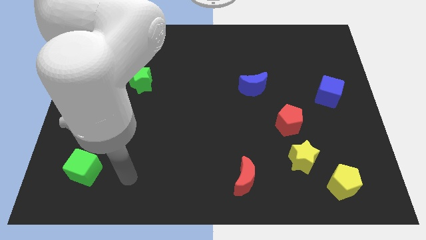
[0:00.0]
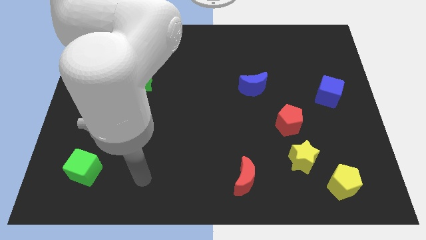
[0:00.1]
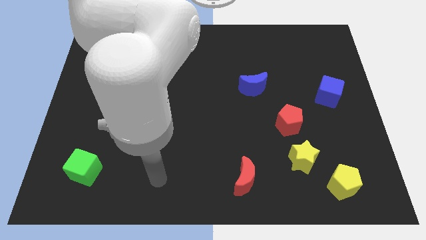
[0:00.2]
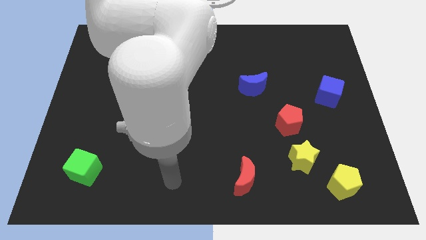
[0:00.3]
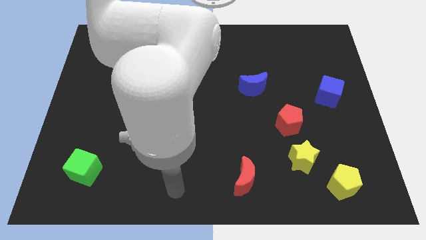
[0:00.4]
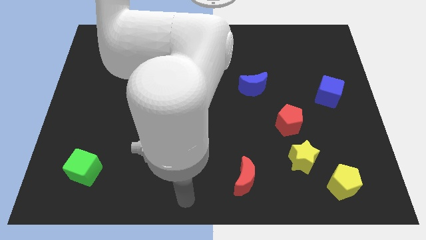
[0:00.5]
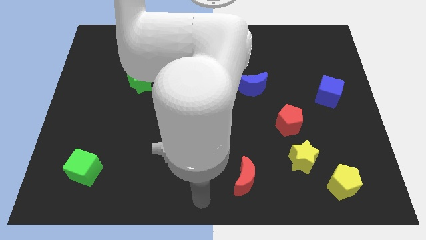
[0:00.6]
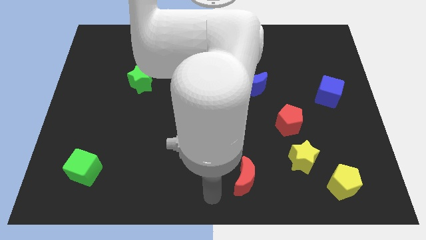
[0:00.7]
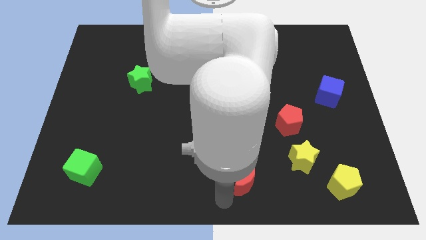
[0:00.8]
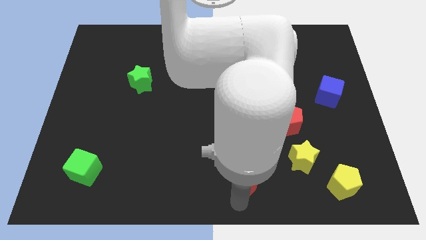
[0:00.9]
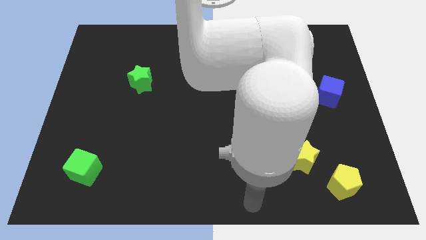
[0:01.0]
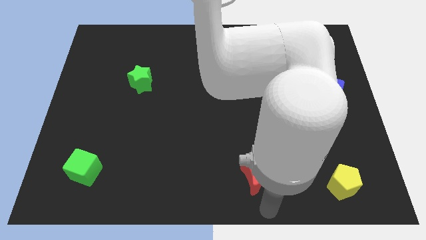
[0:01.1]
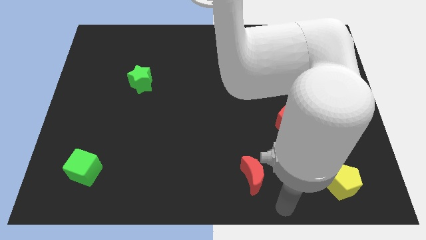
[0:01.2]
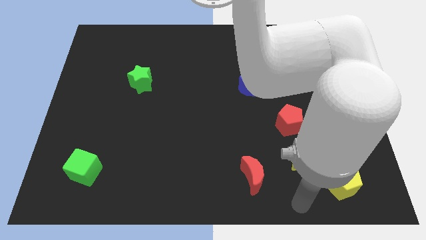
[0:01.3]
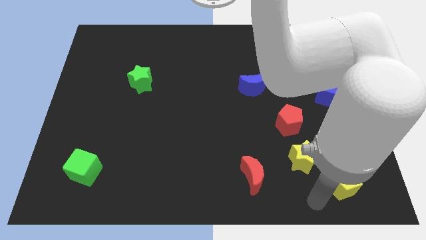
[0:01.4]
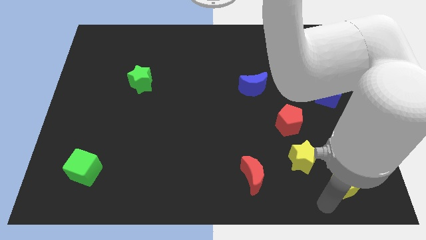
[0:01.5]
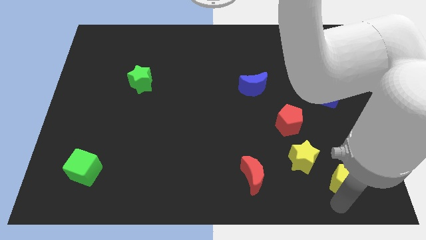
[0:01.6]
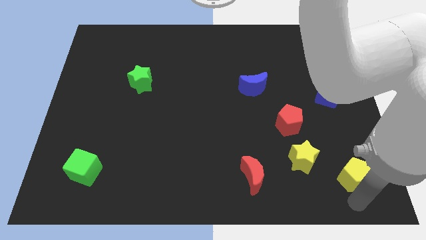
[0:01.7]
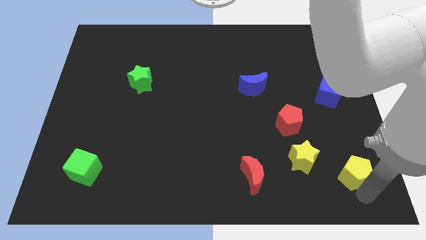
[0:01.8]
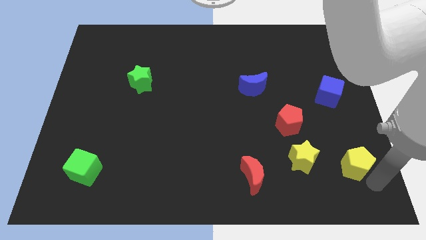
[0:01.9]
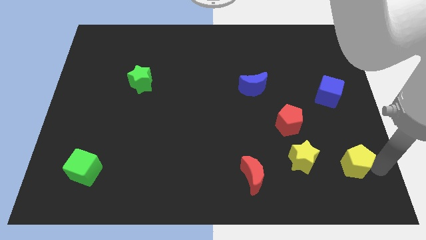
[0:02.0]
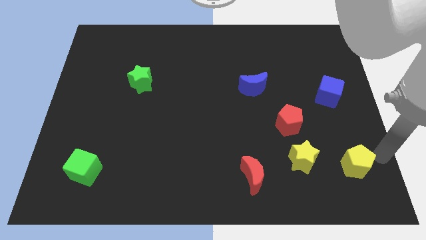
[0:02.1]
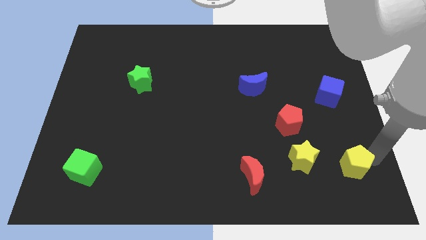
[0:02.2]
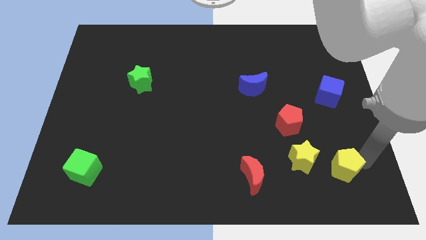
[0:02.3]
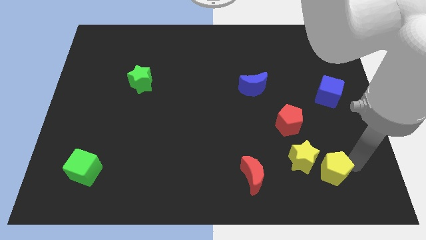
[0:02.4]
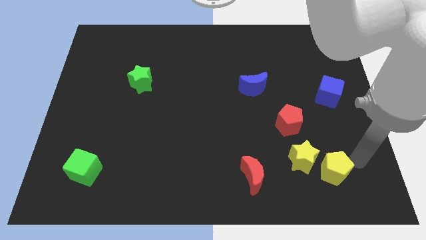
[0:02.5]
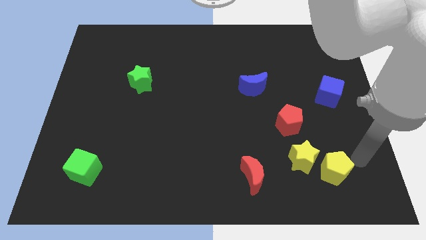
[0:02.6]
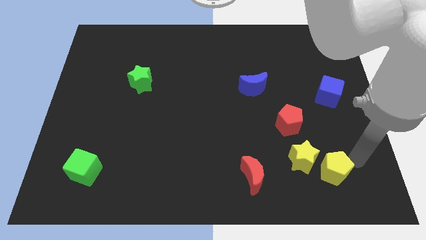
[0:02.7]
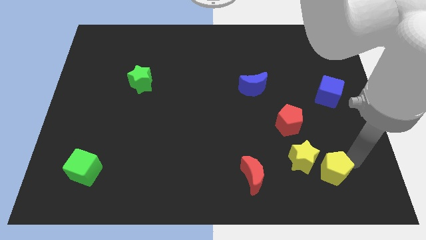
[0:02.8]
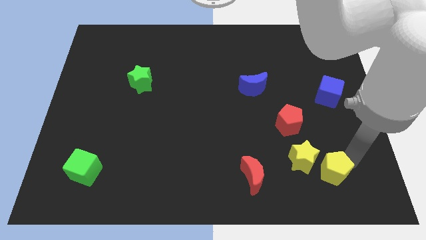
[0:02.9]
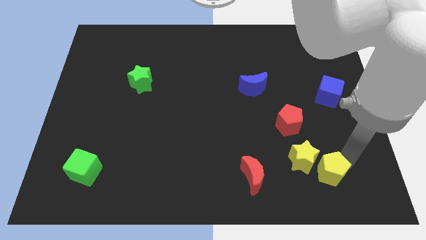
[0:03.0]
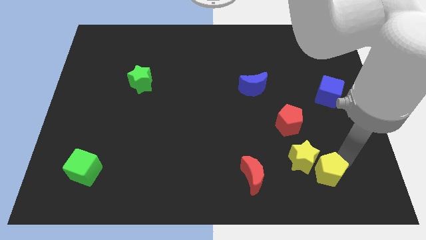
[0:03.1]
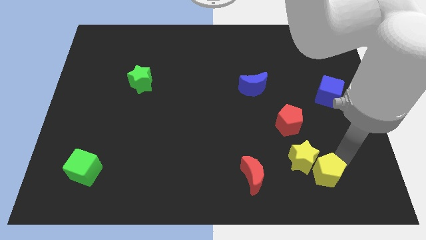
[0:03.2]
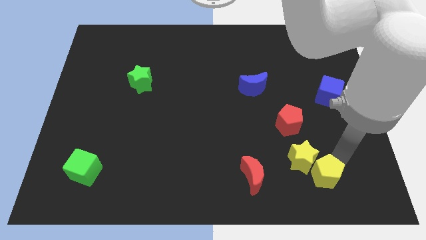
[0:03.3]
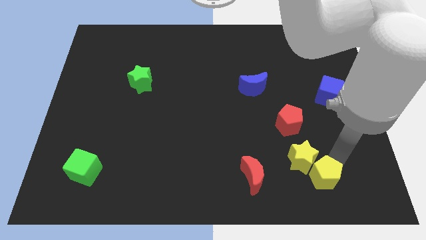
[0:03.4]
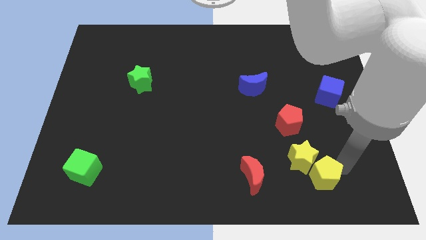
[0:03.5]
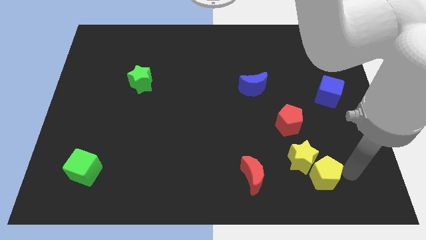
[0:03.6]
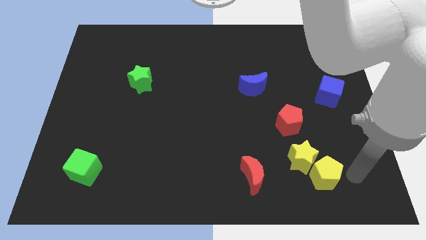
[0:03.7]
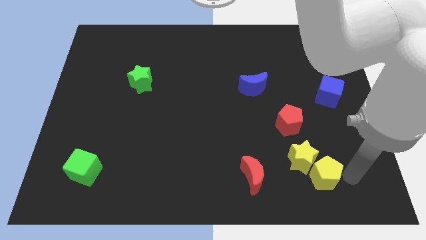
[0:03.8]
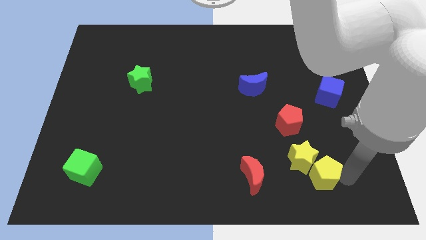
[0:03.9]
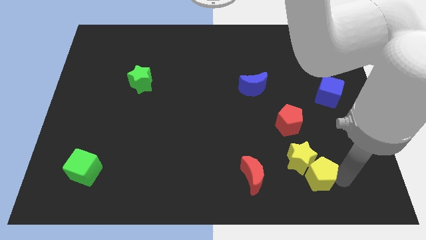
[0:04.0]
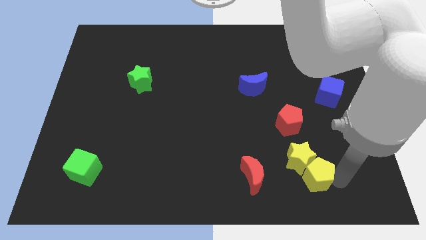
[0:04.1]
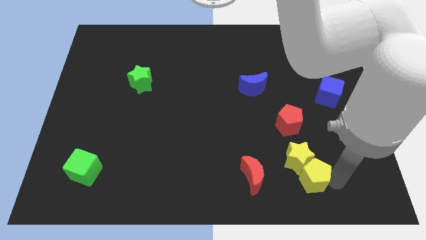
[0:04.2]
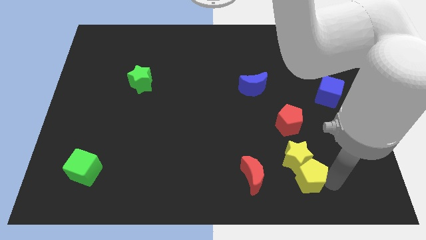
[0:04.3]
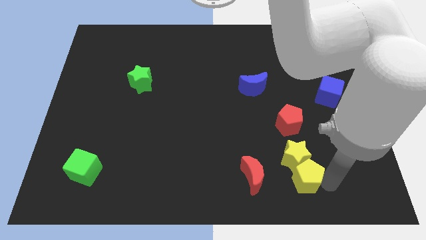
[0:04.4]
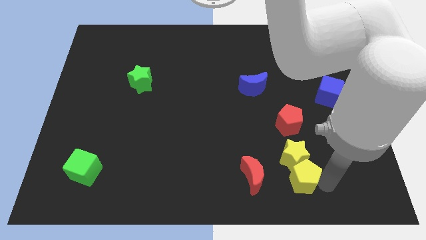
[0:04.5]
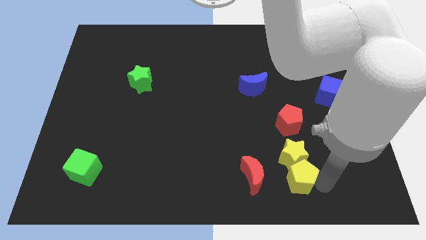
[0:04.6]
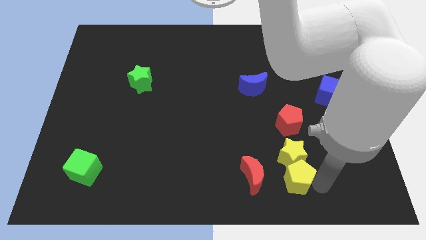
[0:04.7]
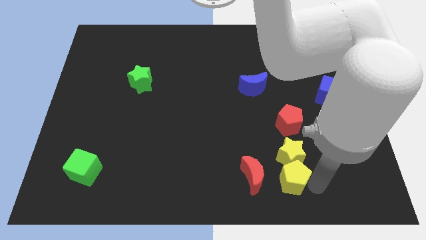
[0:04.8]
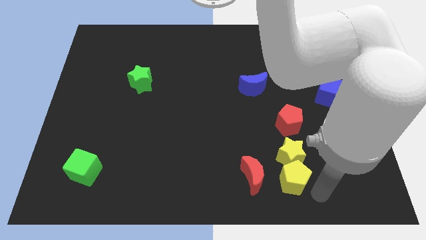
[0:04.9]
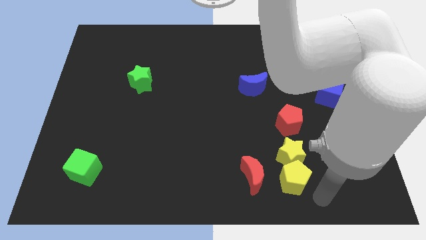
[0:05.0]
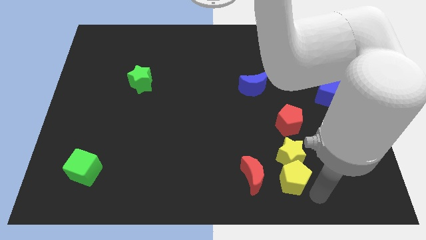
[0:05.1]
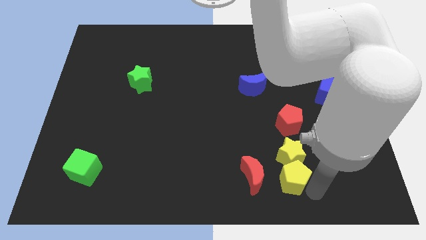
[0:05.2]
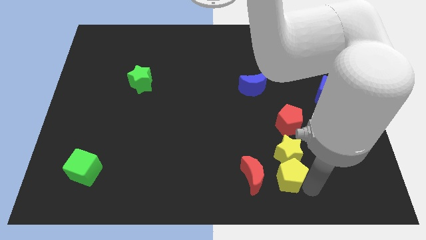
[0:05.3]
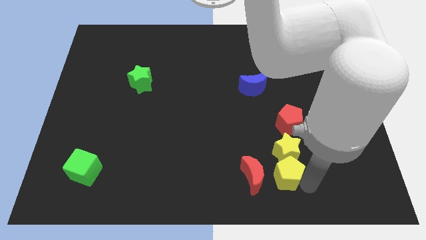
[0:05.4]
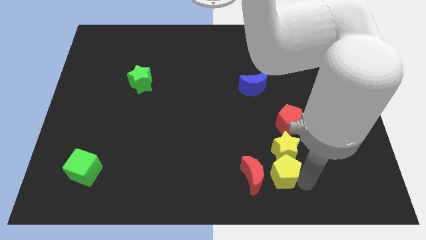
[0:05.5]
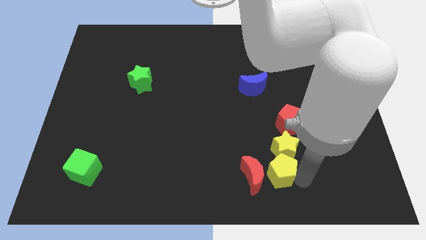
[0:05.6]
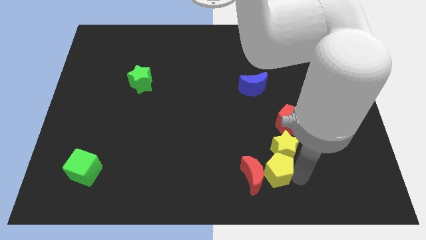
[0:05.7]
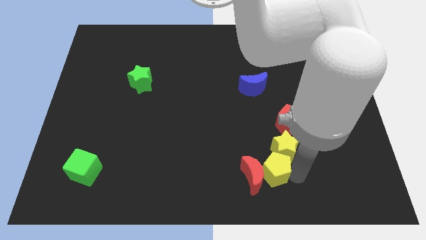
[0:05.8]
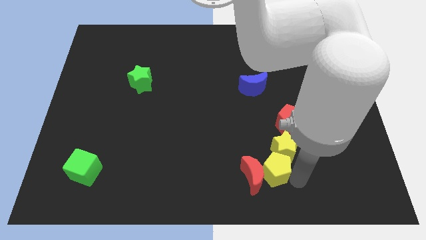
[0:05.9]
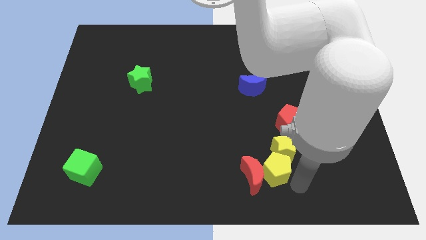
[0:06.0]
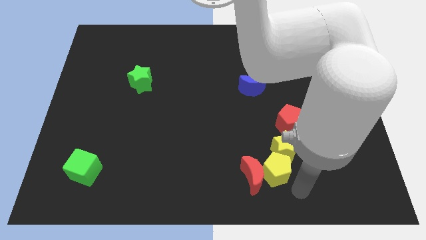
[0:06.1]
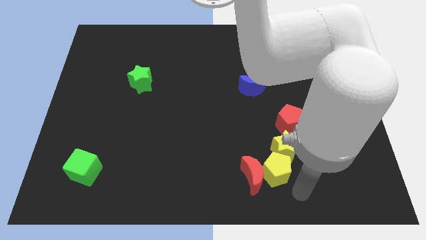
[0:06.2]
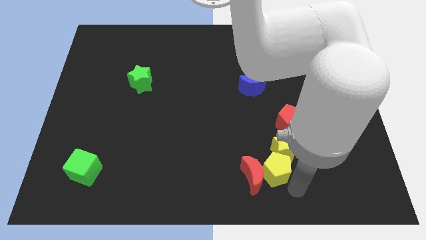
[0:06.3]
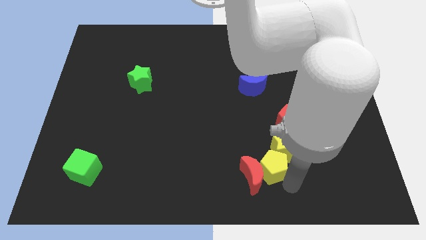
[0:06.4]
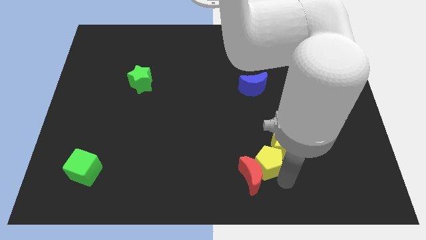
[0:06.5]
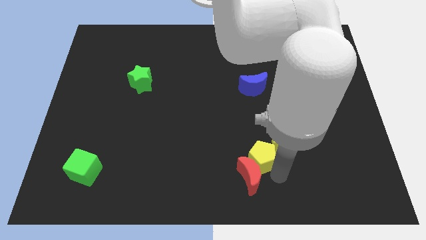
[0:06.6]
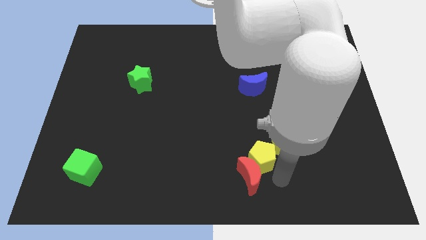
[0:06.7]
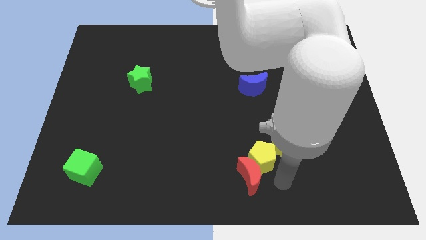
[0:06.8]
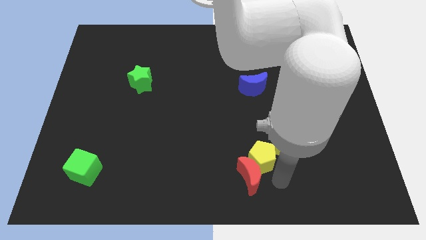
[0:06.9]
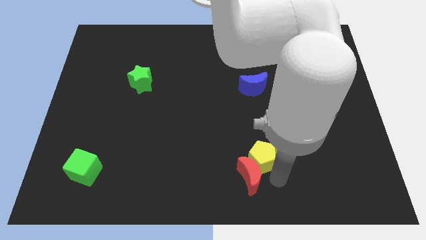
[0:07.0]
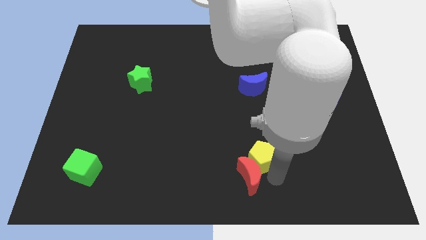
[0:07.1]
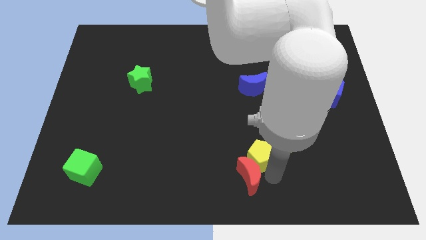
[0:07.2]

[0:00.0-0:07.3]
put the yellow pentagon to the top left of the red moon
